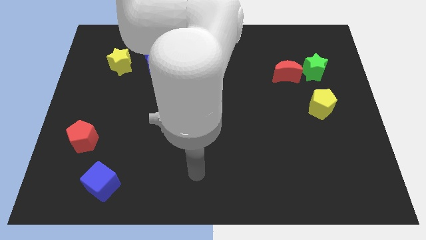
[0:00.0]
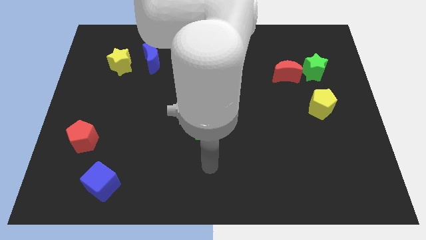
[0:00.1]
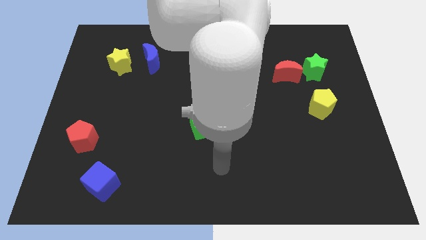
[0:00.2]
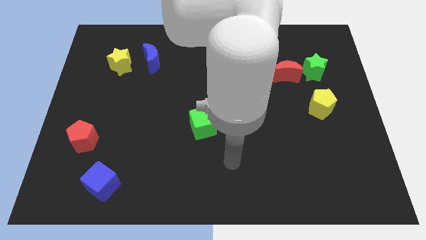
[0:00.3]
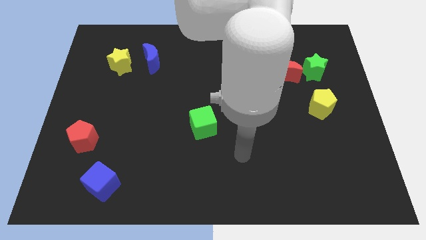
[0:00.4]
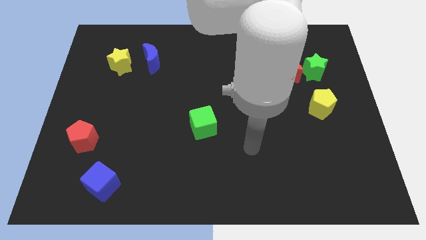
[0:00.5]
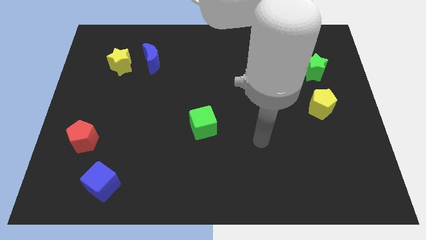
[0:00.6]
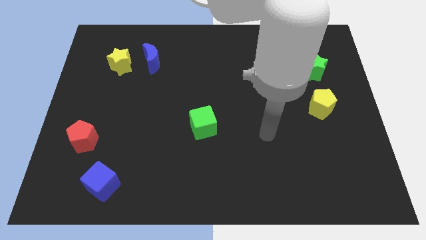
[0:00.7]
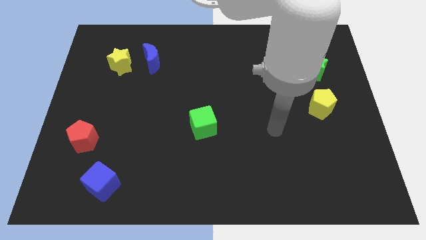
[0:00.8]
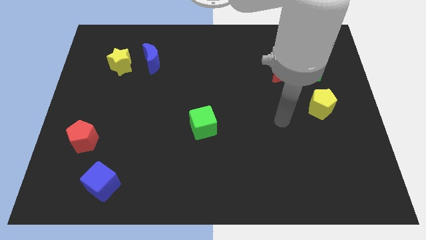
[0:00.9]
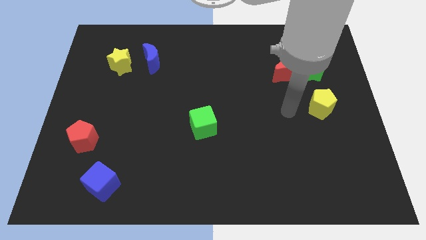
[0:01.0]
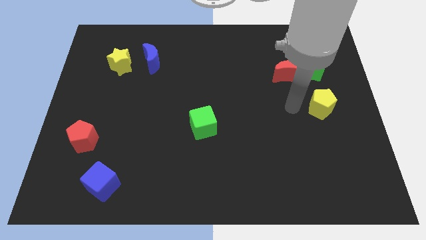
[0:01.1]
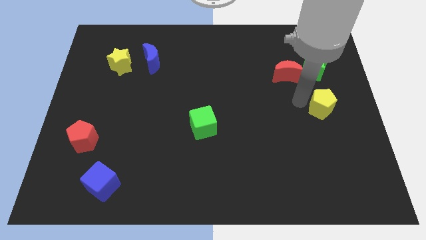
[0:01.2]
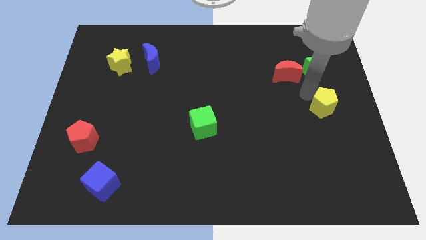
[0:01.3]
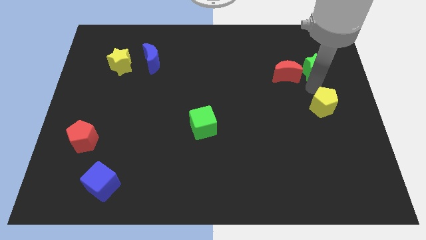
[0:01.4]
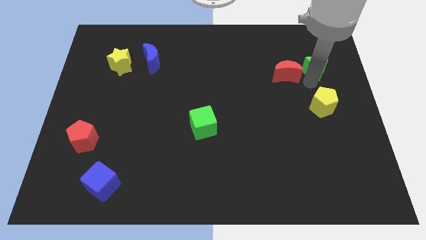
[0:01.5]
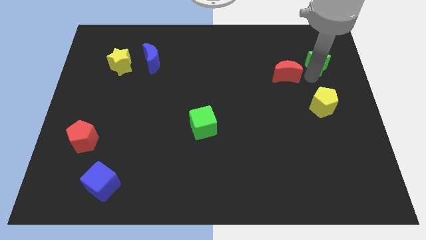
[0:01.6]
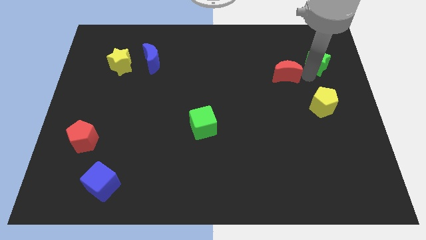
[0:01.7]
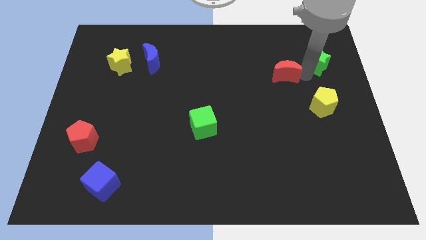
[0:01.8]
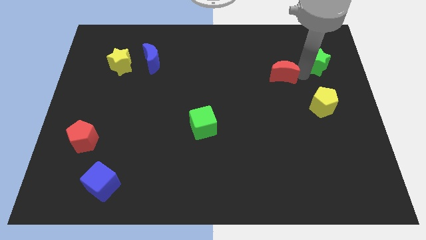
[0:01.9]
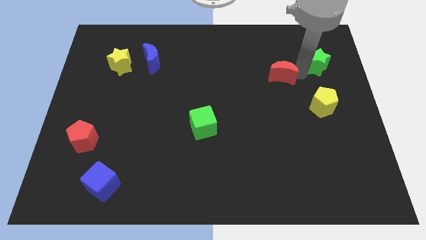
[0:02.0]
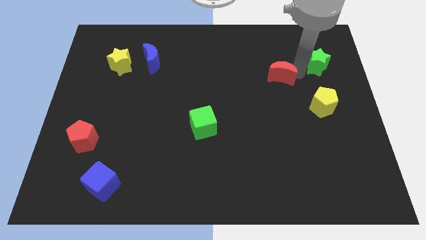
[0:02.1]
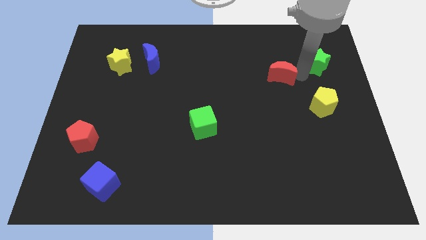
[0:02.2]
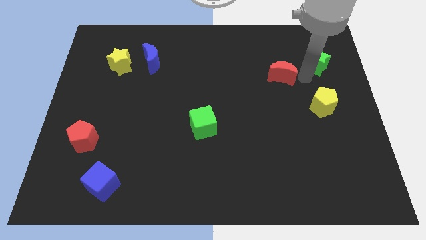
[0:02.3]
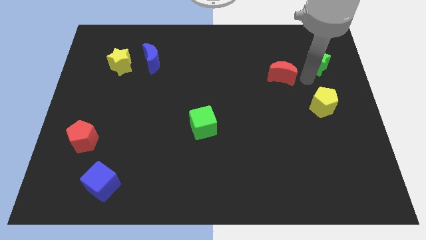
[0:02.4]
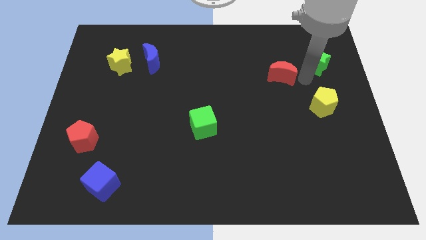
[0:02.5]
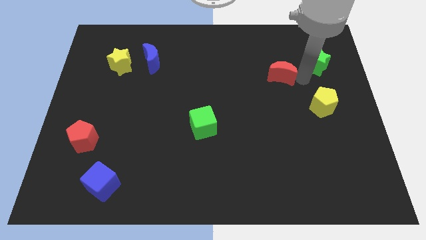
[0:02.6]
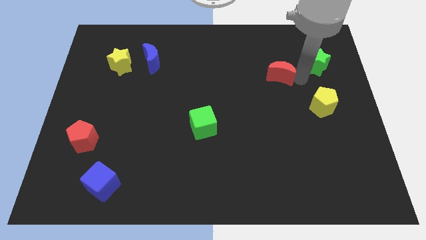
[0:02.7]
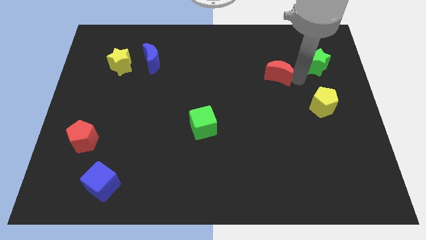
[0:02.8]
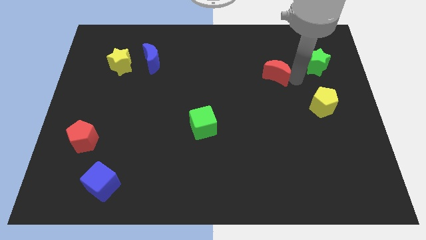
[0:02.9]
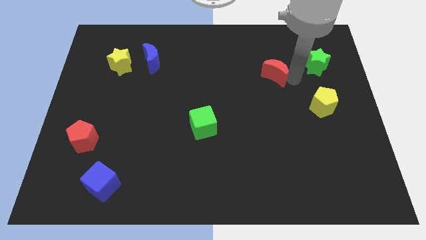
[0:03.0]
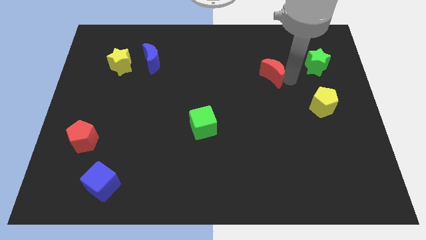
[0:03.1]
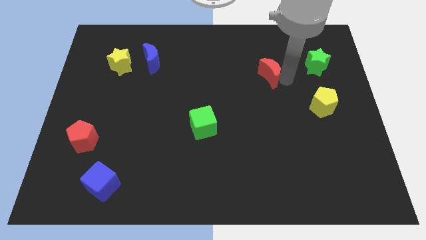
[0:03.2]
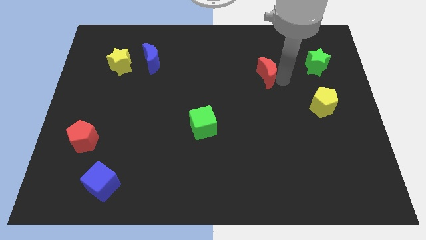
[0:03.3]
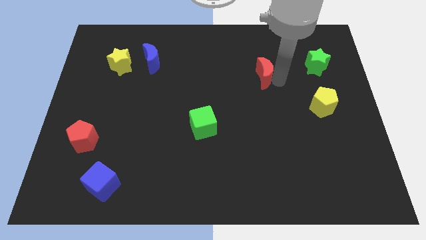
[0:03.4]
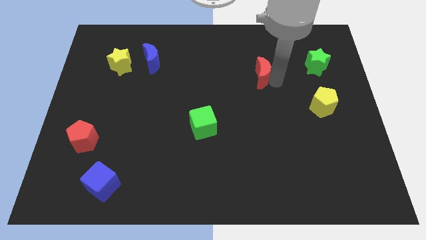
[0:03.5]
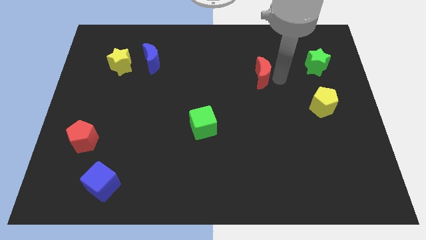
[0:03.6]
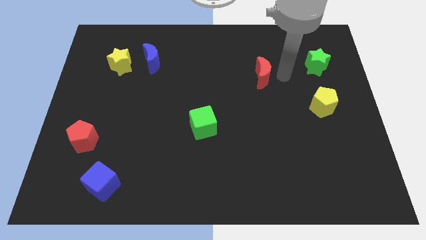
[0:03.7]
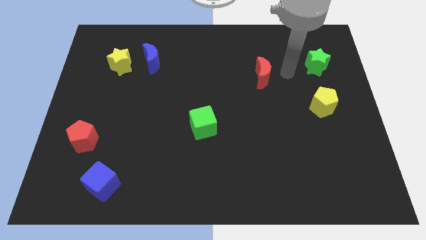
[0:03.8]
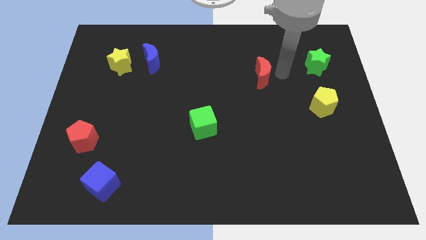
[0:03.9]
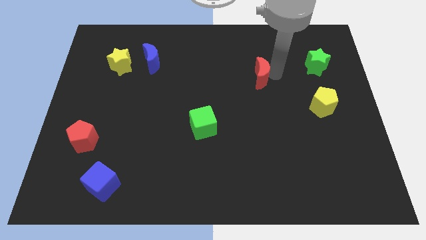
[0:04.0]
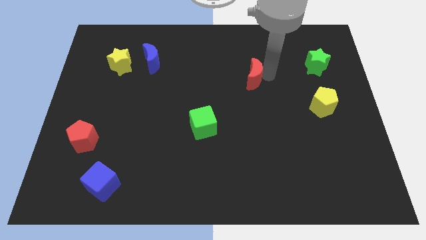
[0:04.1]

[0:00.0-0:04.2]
slide the red moon to the left a little bit

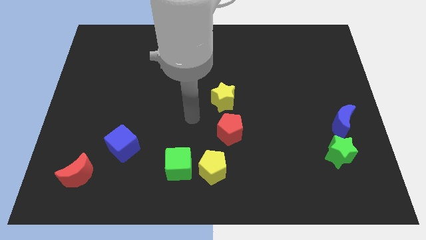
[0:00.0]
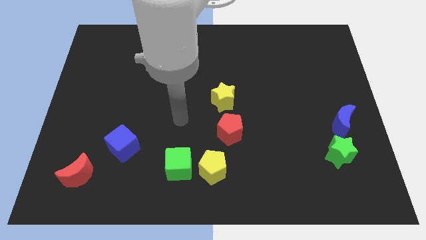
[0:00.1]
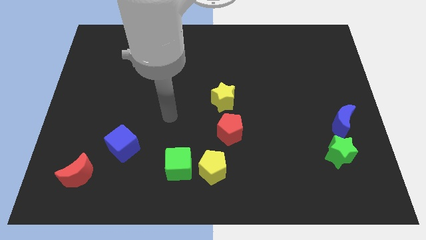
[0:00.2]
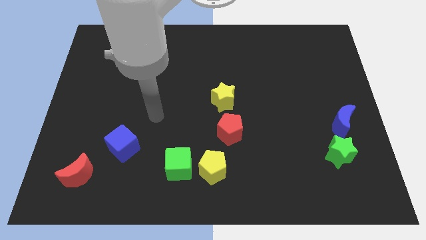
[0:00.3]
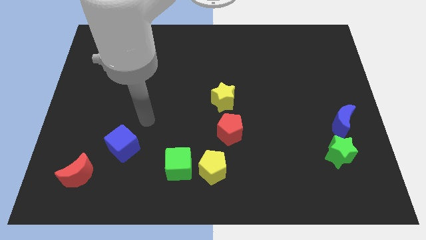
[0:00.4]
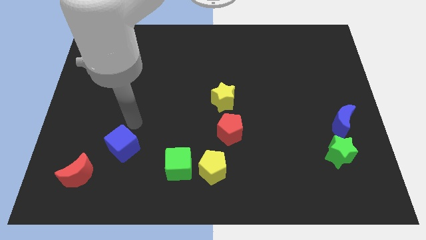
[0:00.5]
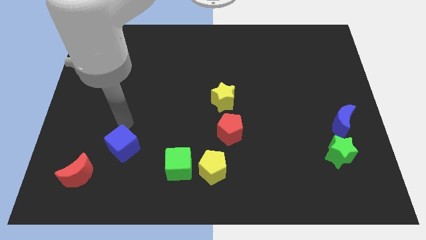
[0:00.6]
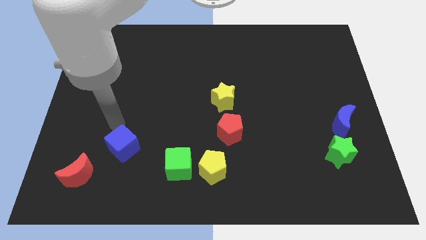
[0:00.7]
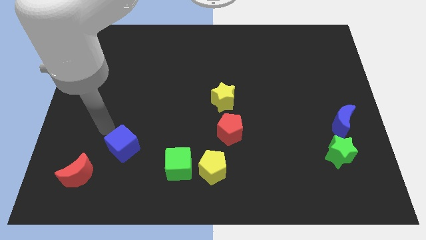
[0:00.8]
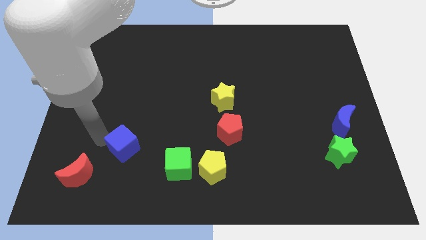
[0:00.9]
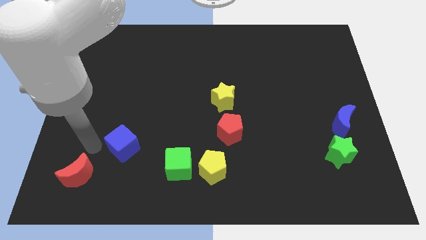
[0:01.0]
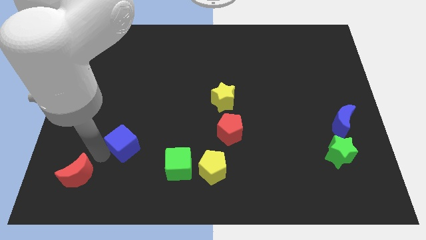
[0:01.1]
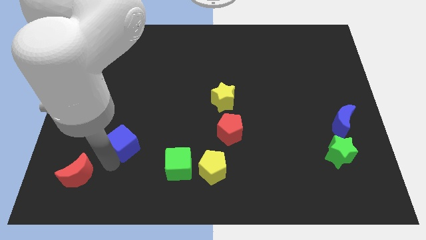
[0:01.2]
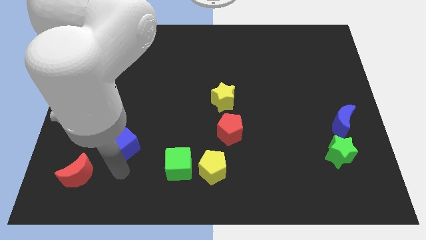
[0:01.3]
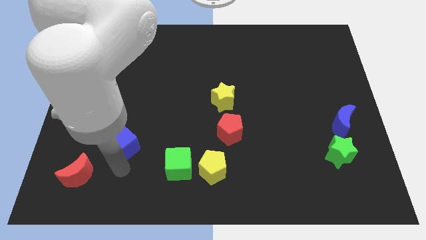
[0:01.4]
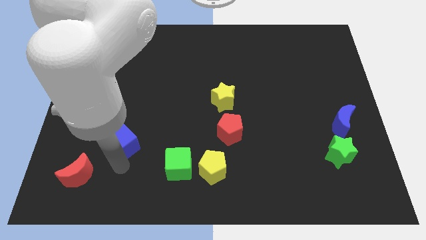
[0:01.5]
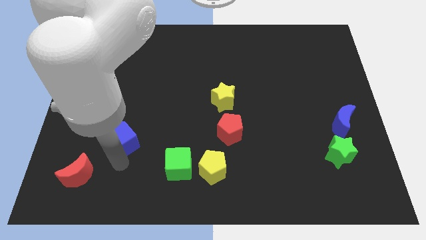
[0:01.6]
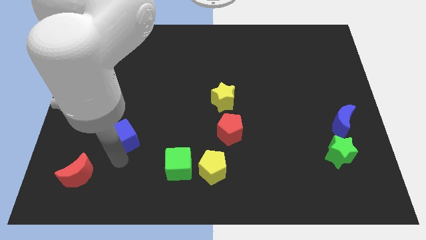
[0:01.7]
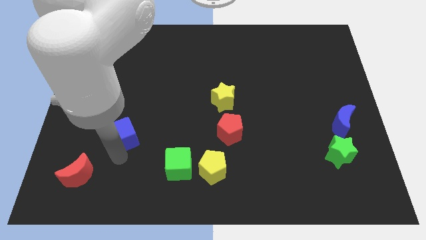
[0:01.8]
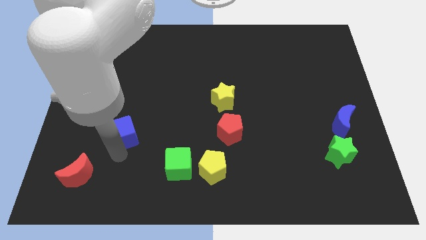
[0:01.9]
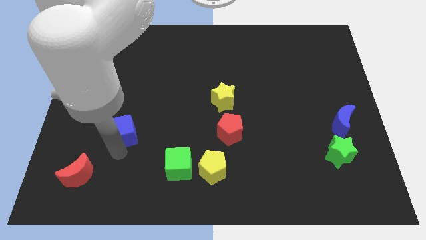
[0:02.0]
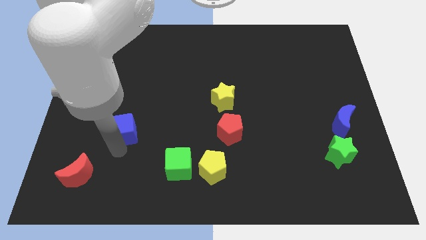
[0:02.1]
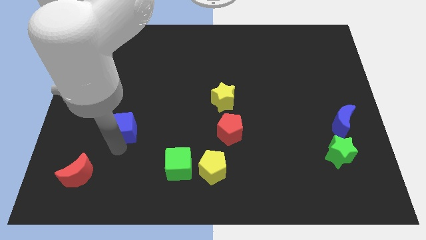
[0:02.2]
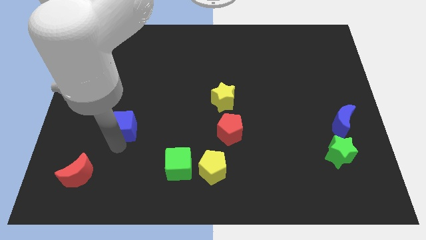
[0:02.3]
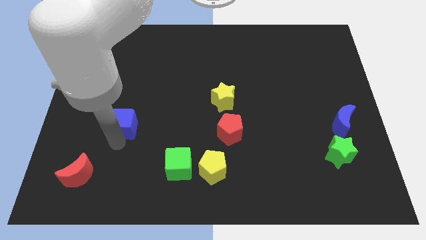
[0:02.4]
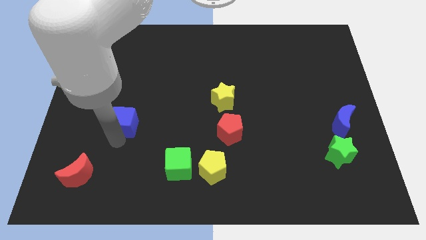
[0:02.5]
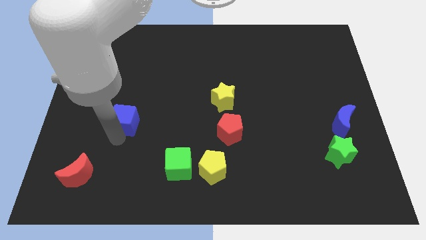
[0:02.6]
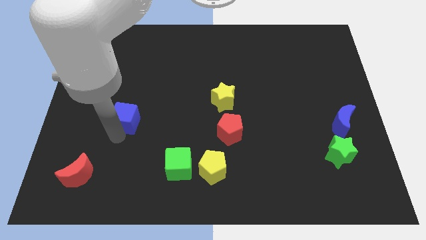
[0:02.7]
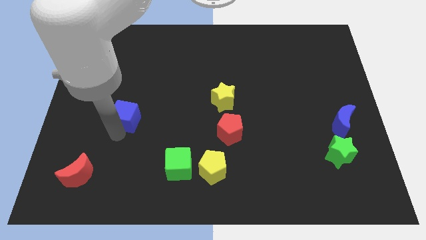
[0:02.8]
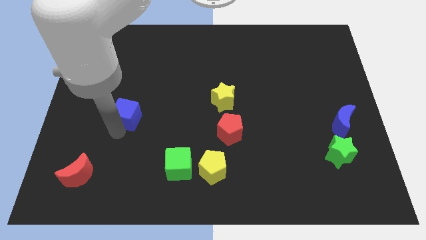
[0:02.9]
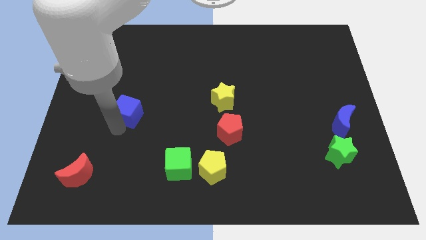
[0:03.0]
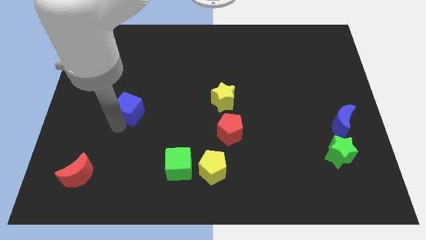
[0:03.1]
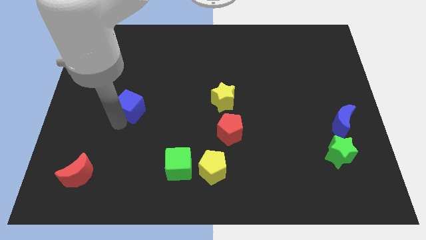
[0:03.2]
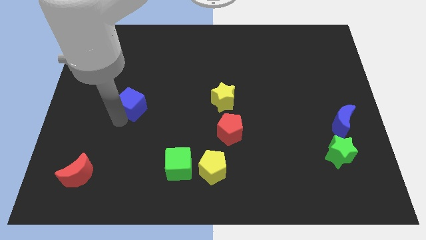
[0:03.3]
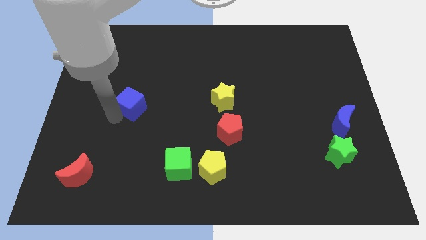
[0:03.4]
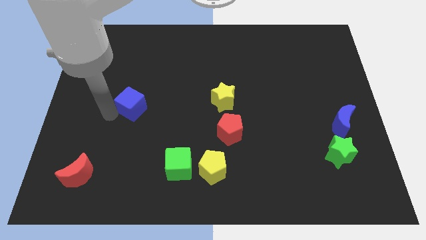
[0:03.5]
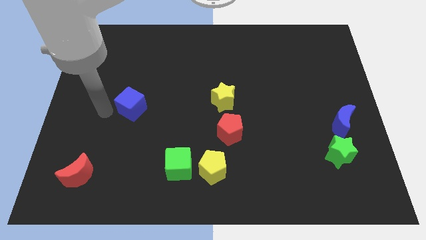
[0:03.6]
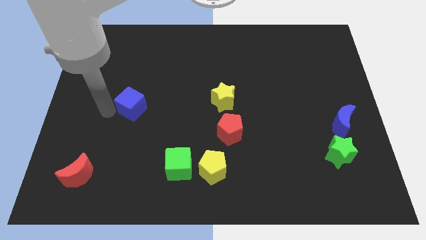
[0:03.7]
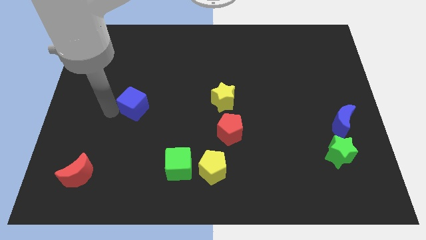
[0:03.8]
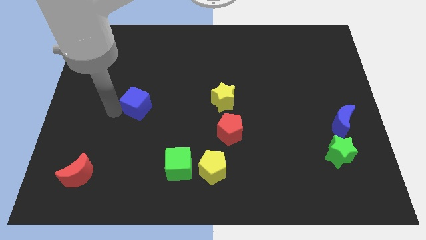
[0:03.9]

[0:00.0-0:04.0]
slide the blue cube slightly diagonally upwards and right

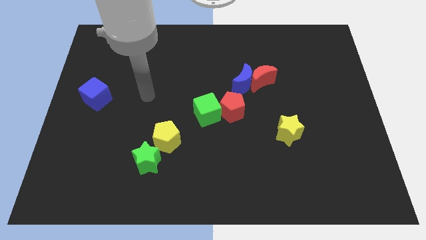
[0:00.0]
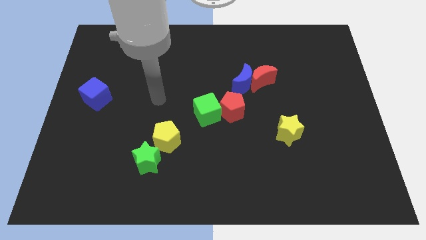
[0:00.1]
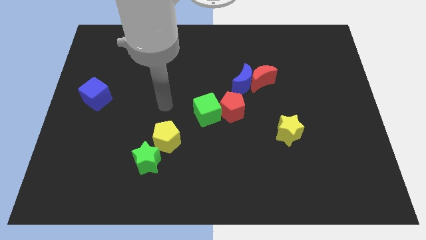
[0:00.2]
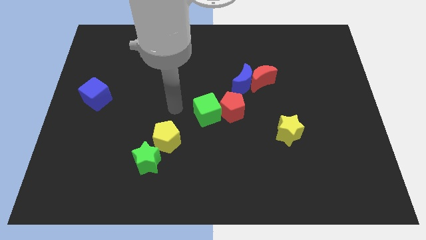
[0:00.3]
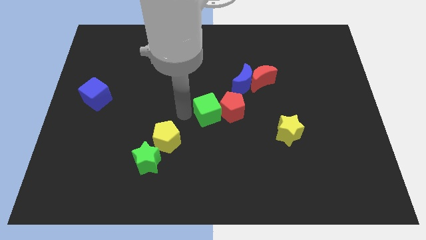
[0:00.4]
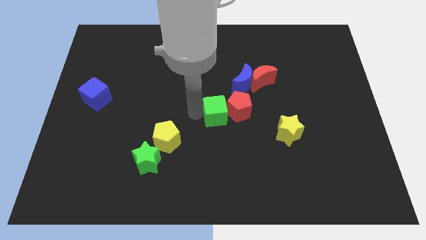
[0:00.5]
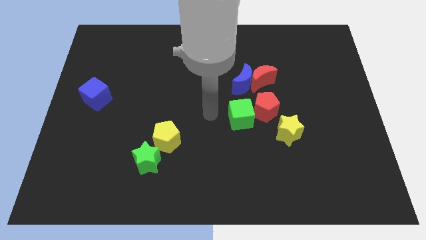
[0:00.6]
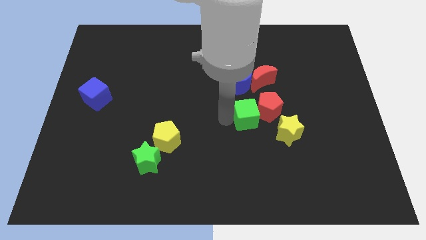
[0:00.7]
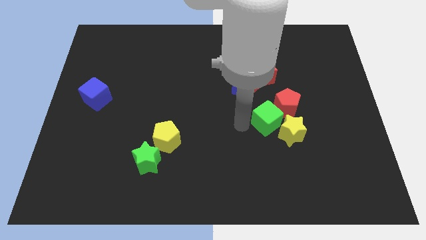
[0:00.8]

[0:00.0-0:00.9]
push the red pentagon up and to the right diagonally slightly
